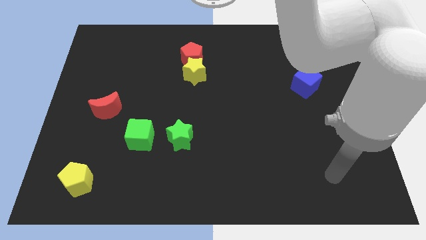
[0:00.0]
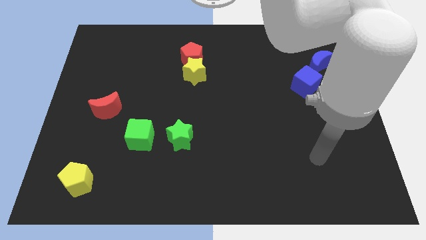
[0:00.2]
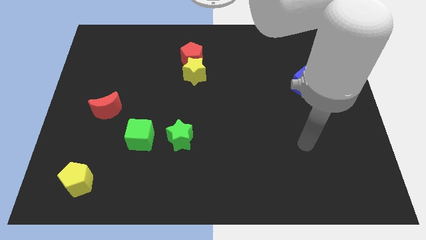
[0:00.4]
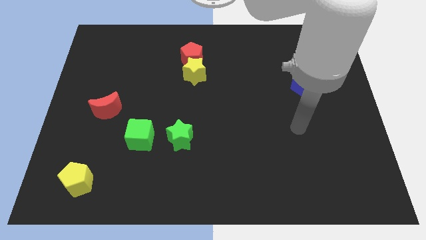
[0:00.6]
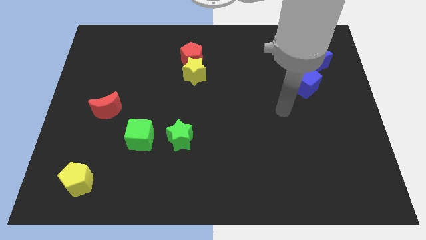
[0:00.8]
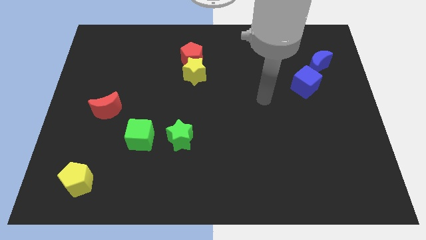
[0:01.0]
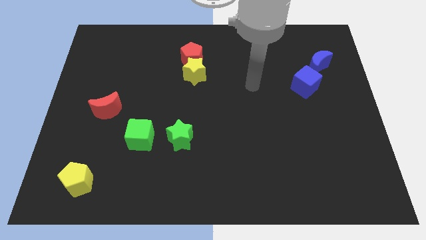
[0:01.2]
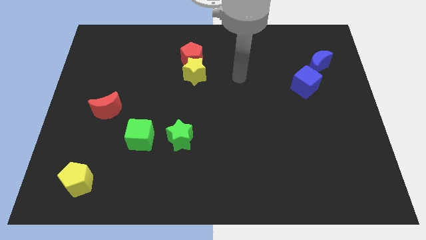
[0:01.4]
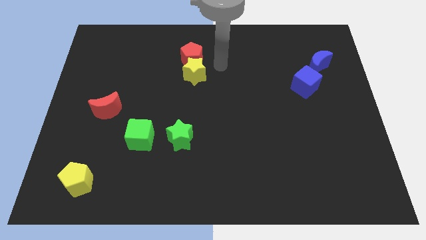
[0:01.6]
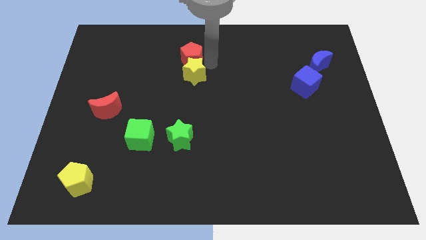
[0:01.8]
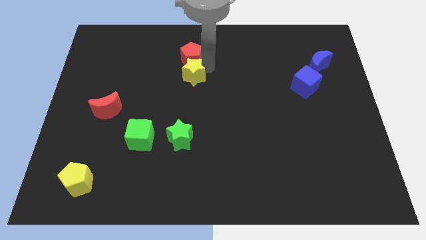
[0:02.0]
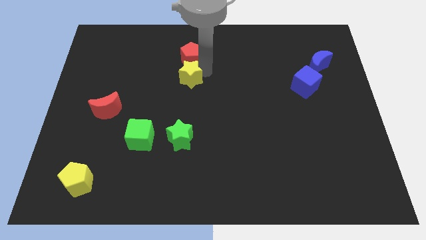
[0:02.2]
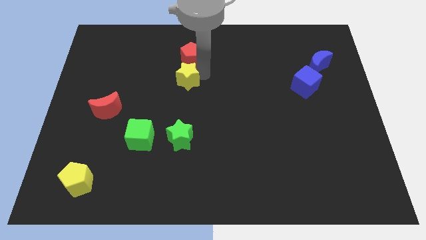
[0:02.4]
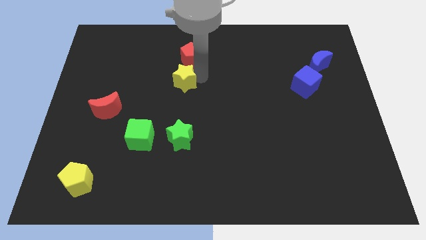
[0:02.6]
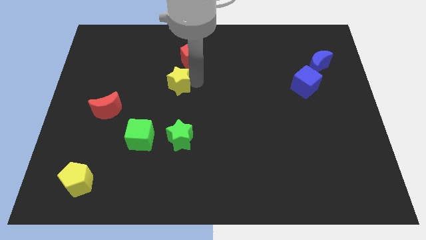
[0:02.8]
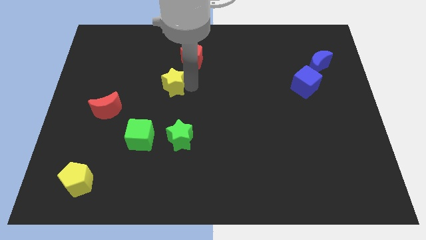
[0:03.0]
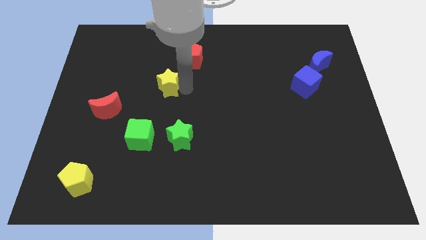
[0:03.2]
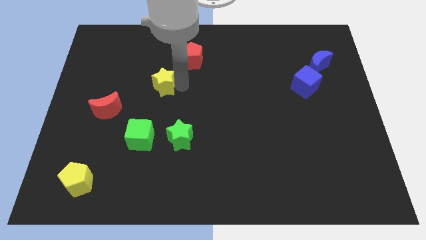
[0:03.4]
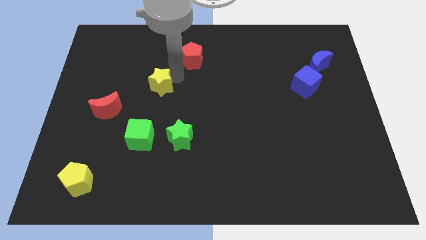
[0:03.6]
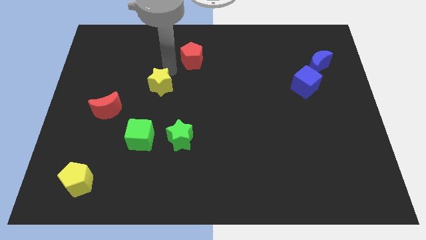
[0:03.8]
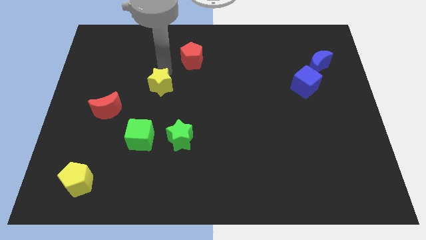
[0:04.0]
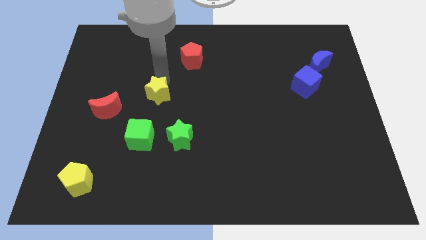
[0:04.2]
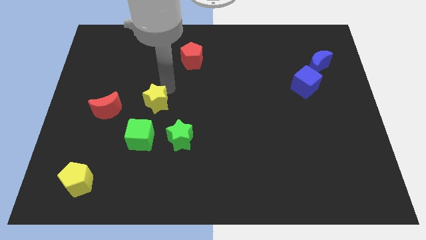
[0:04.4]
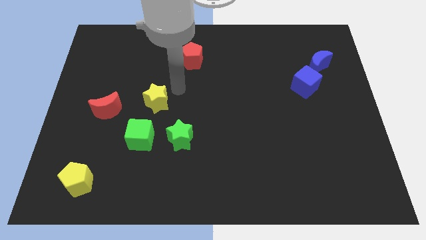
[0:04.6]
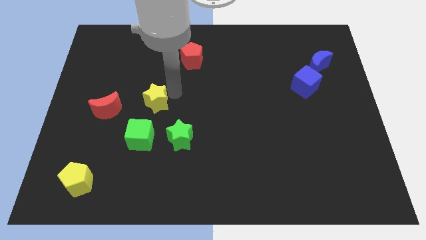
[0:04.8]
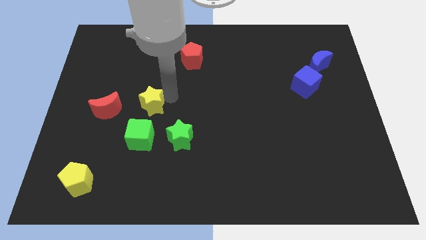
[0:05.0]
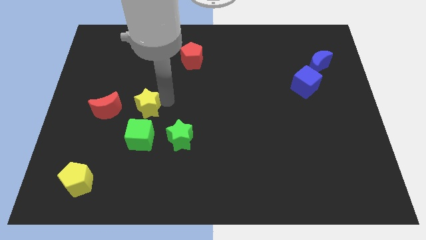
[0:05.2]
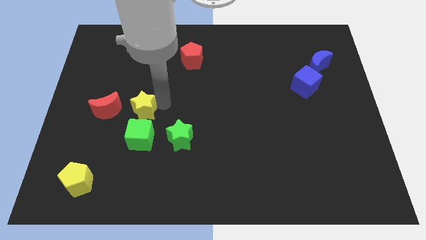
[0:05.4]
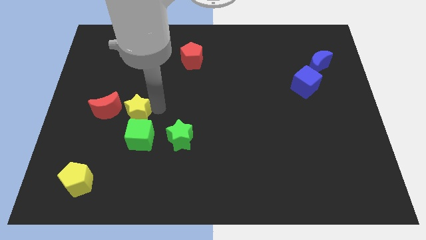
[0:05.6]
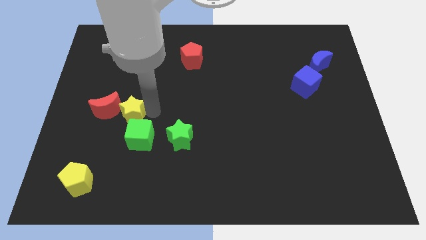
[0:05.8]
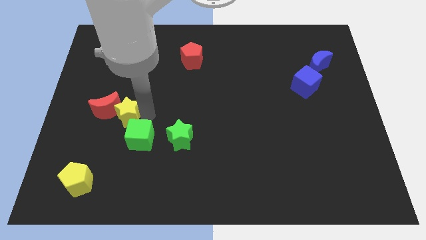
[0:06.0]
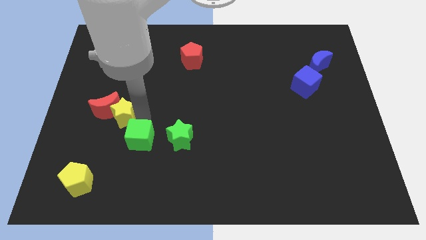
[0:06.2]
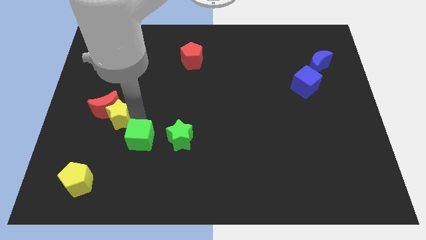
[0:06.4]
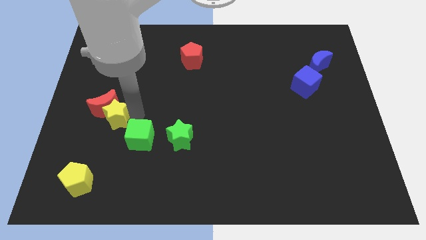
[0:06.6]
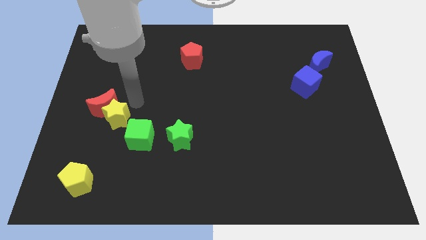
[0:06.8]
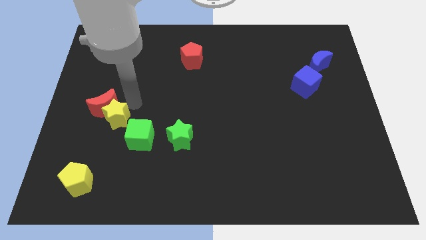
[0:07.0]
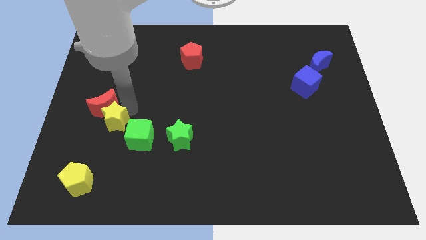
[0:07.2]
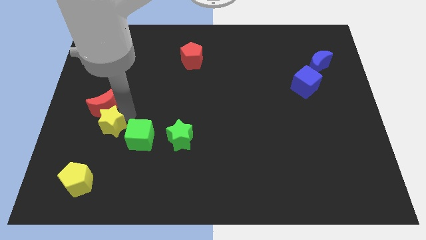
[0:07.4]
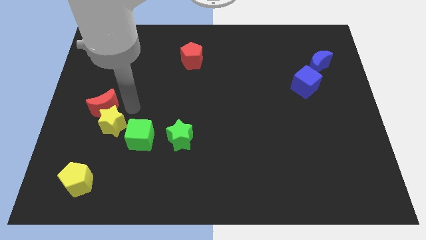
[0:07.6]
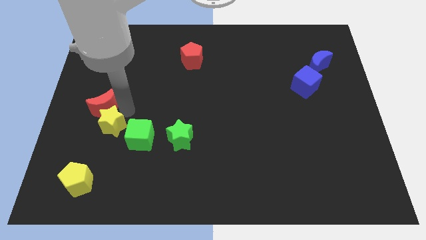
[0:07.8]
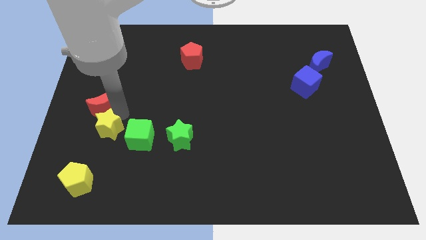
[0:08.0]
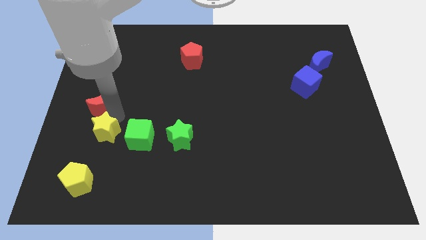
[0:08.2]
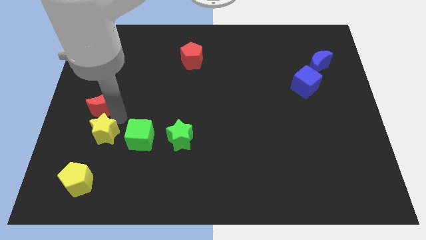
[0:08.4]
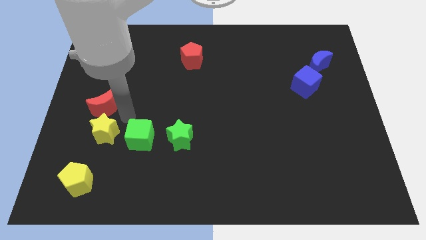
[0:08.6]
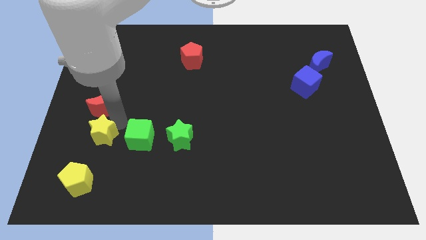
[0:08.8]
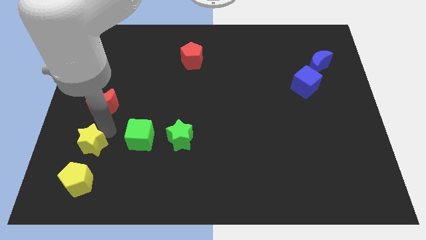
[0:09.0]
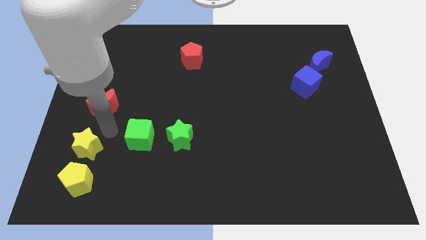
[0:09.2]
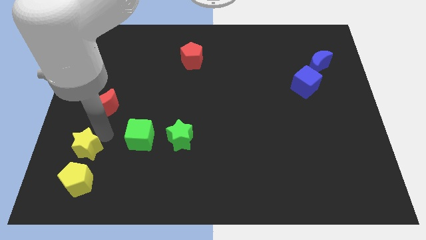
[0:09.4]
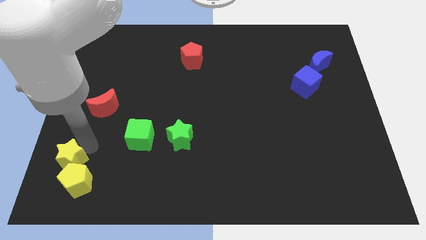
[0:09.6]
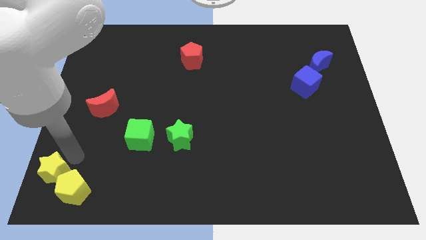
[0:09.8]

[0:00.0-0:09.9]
put the yellow star to the bottom left corner

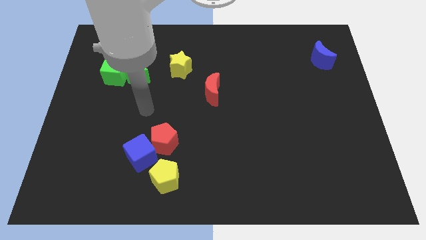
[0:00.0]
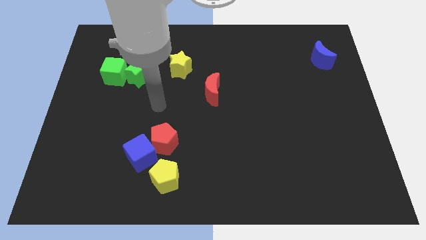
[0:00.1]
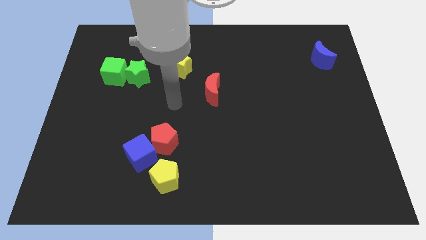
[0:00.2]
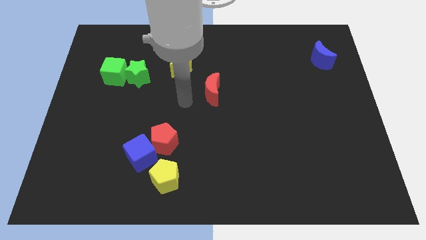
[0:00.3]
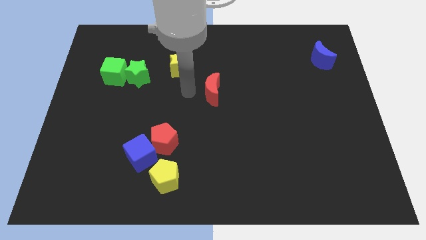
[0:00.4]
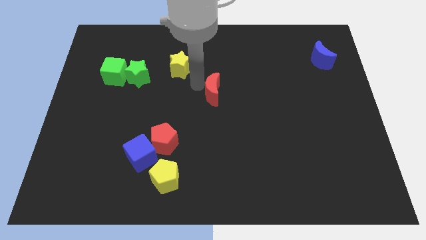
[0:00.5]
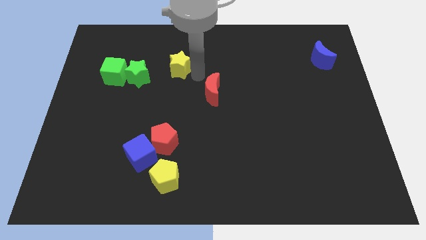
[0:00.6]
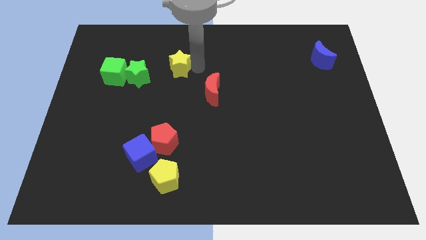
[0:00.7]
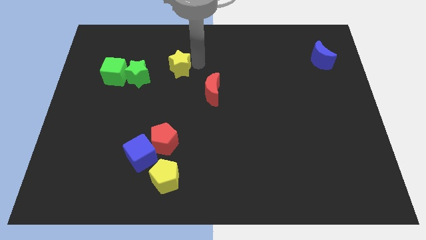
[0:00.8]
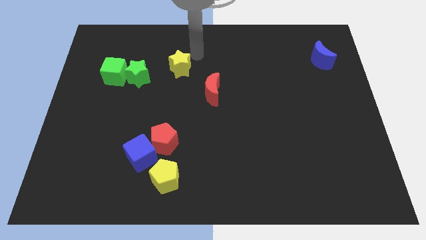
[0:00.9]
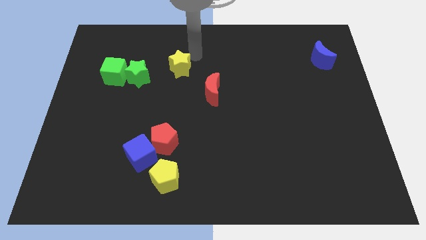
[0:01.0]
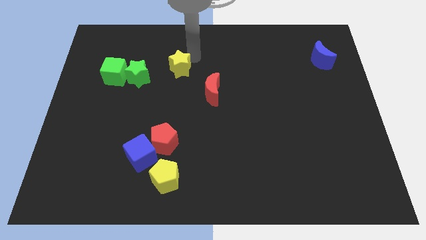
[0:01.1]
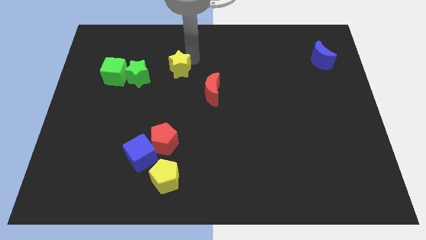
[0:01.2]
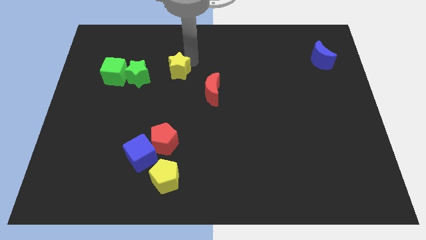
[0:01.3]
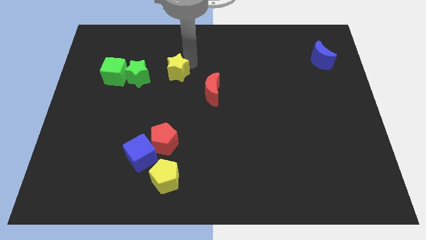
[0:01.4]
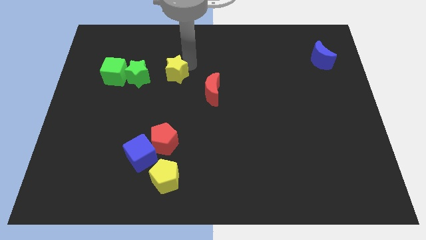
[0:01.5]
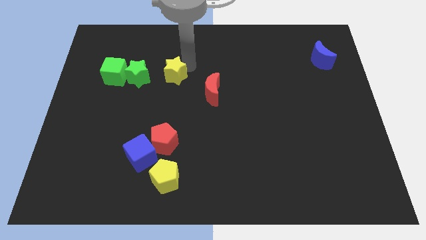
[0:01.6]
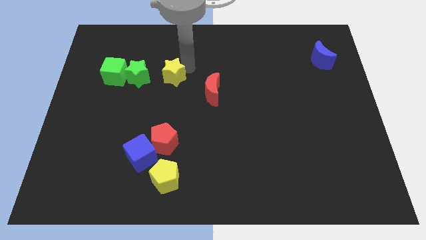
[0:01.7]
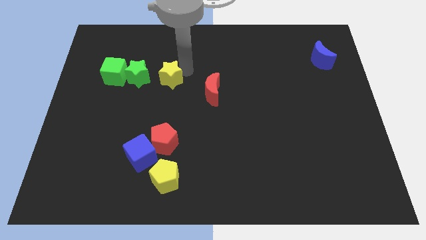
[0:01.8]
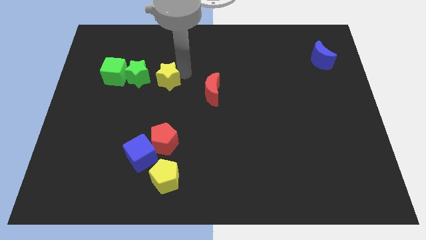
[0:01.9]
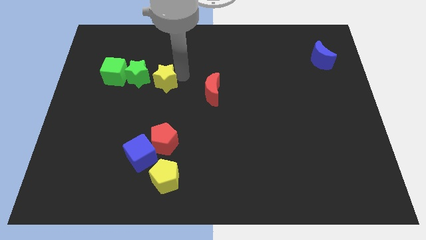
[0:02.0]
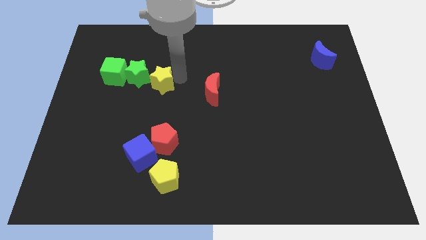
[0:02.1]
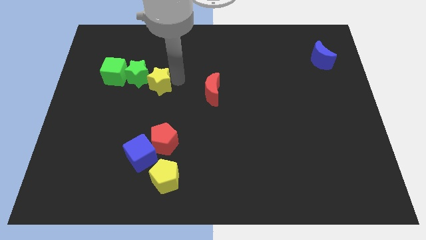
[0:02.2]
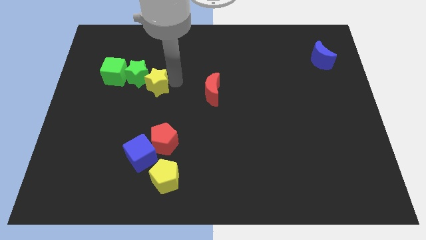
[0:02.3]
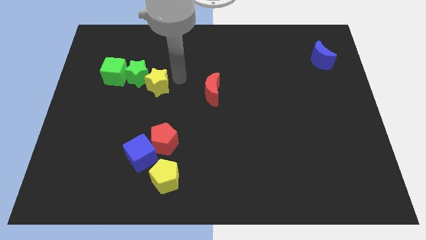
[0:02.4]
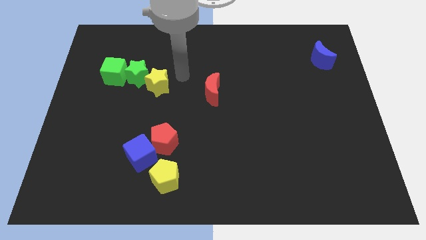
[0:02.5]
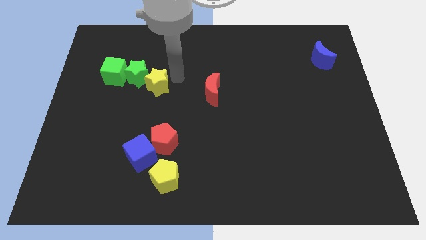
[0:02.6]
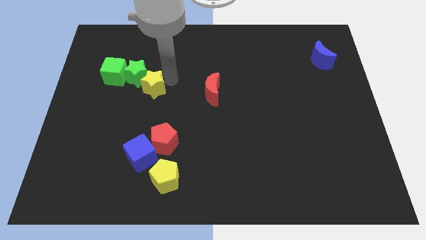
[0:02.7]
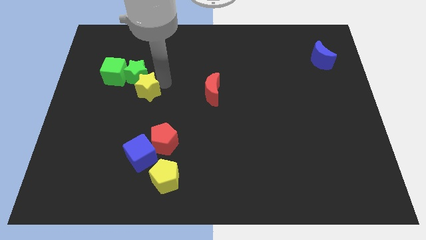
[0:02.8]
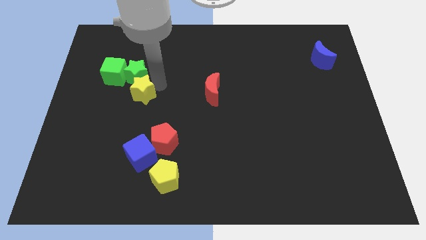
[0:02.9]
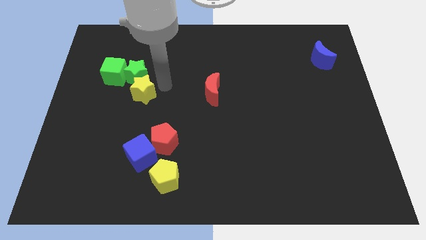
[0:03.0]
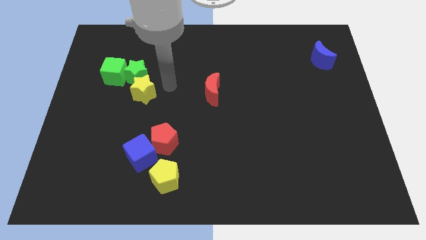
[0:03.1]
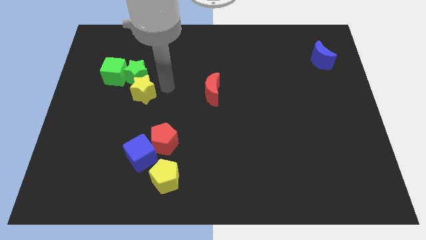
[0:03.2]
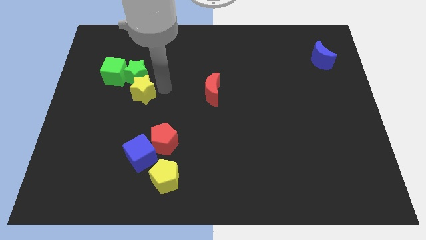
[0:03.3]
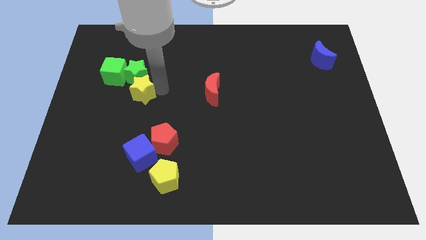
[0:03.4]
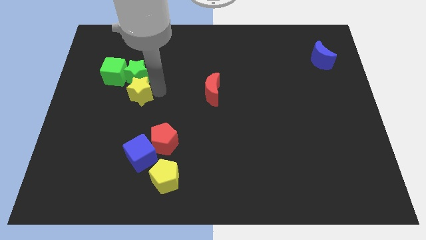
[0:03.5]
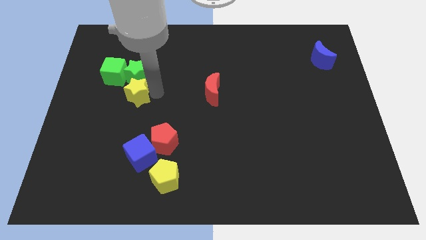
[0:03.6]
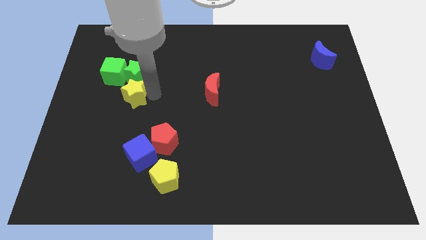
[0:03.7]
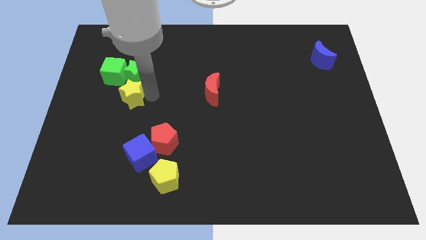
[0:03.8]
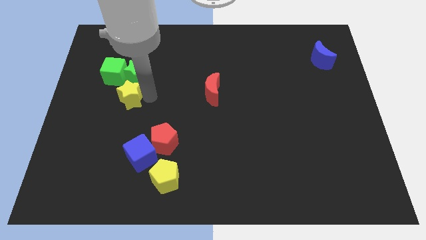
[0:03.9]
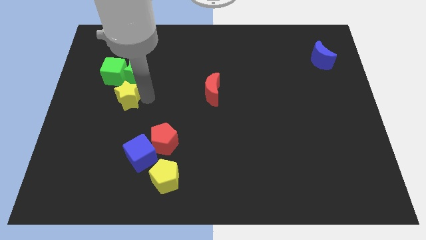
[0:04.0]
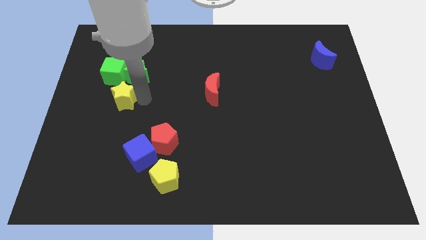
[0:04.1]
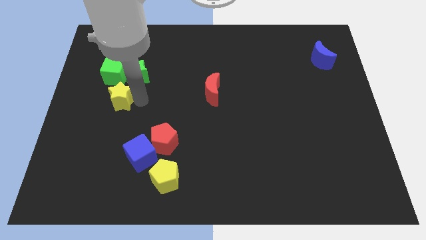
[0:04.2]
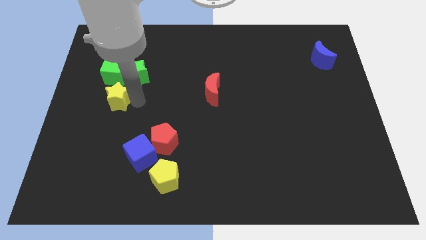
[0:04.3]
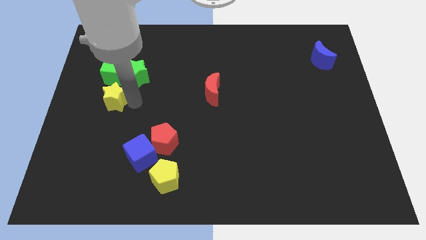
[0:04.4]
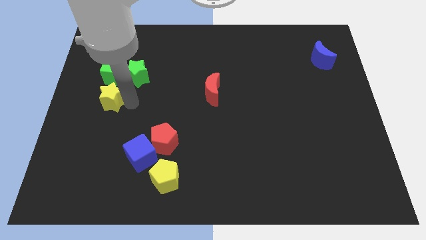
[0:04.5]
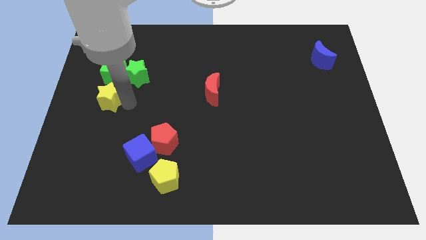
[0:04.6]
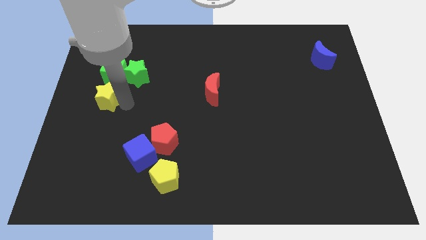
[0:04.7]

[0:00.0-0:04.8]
slide the yellow star to the center left
